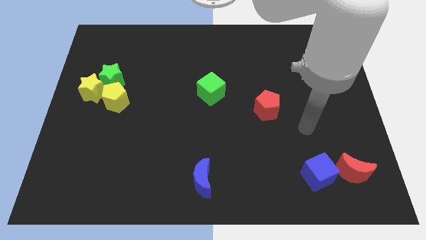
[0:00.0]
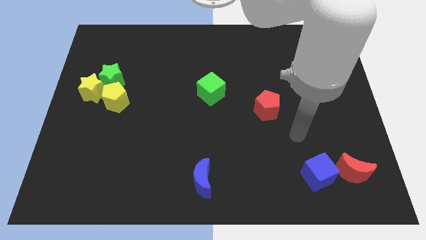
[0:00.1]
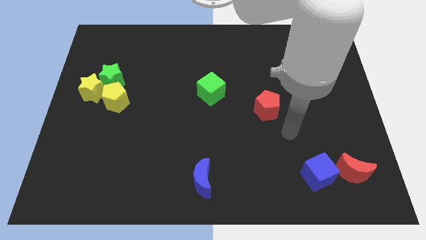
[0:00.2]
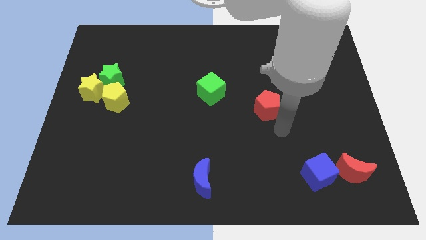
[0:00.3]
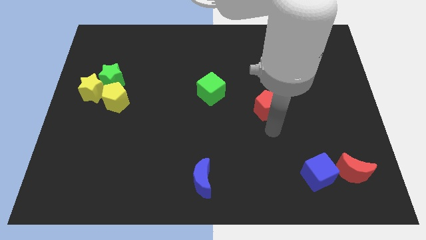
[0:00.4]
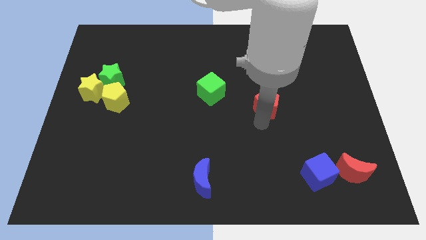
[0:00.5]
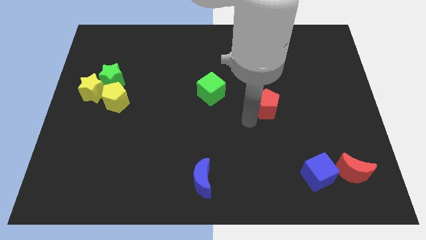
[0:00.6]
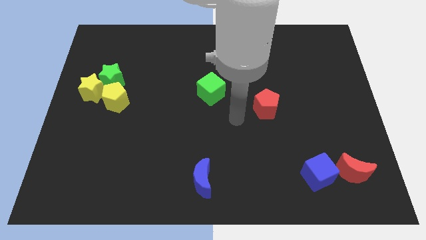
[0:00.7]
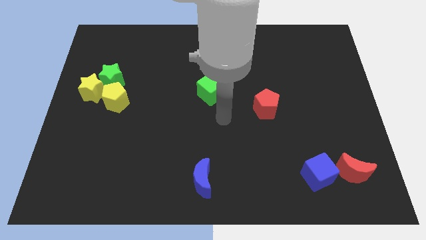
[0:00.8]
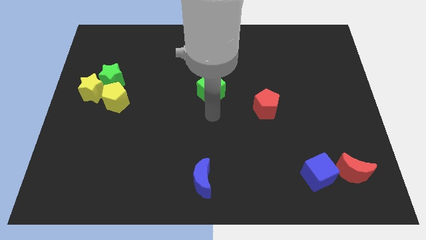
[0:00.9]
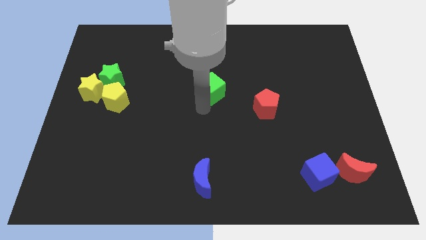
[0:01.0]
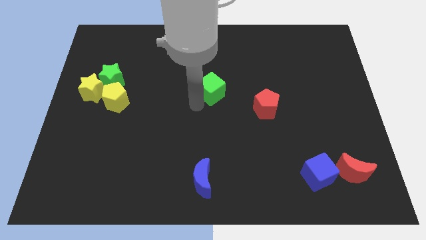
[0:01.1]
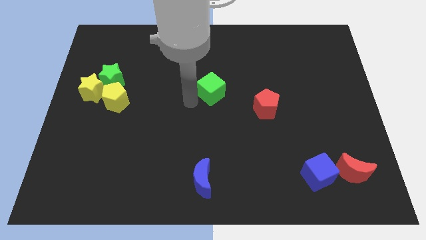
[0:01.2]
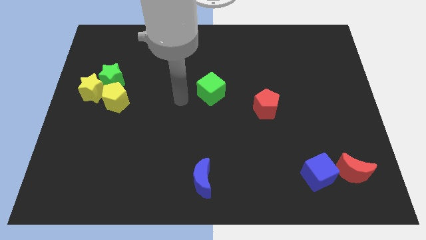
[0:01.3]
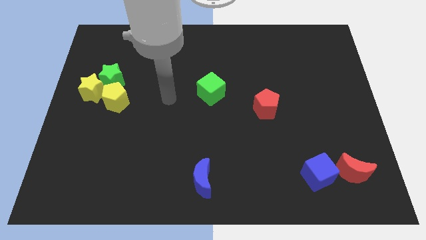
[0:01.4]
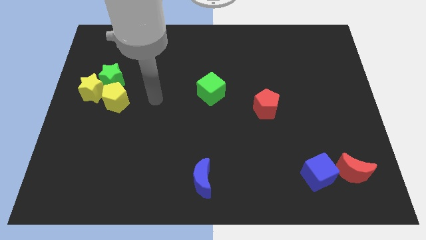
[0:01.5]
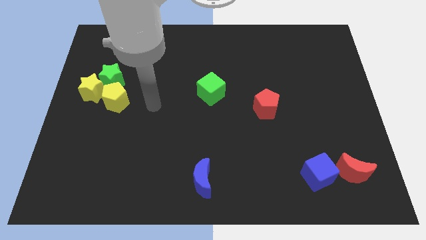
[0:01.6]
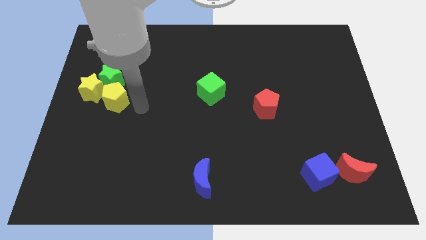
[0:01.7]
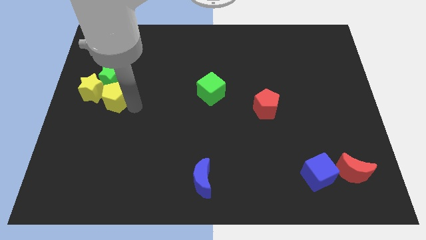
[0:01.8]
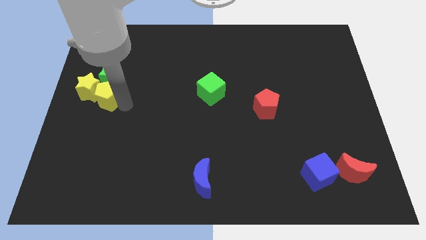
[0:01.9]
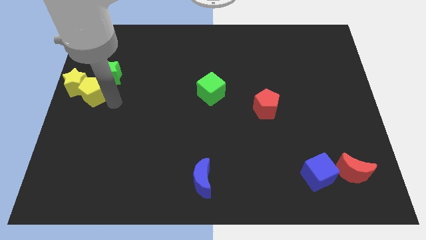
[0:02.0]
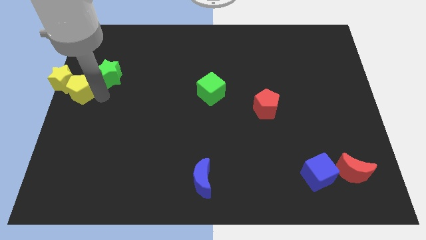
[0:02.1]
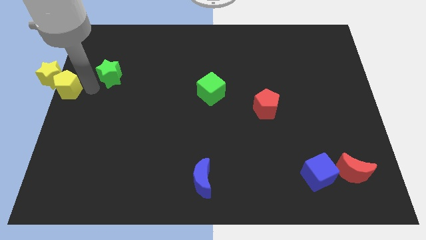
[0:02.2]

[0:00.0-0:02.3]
pull the green star apart from the yellow star and yellow pentagon

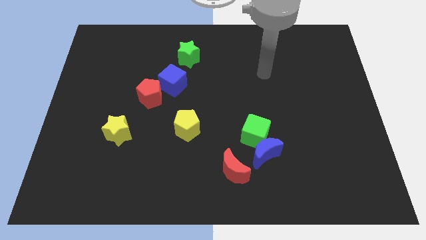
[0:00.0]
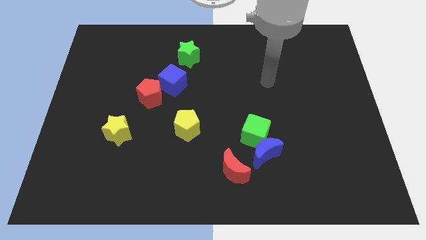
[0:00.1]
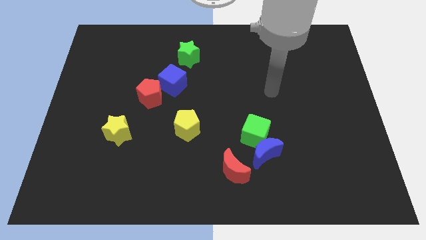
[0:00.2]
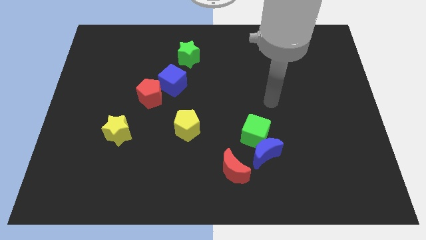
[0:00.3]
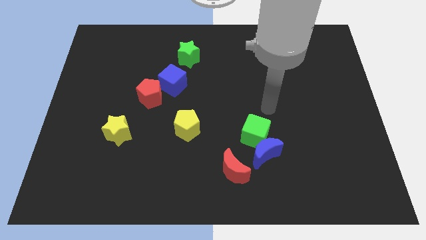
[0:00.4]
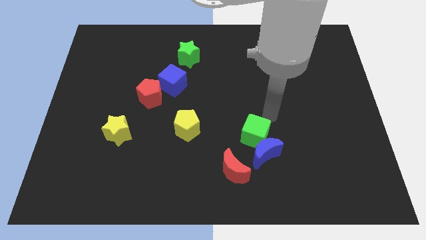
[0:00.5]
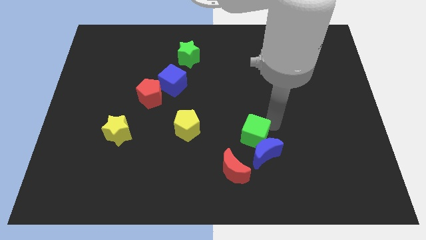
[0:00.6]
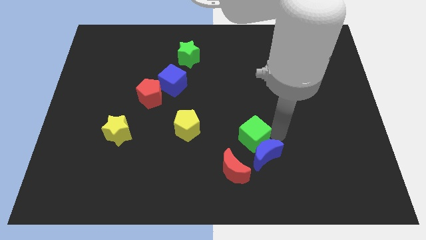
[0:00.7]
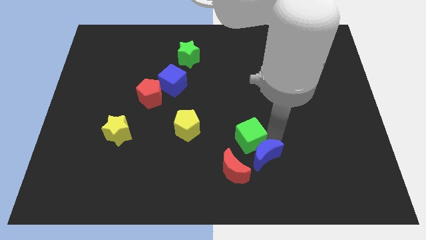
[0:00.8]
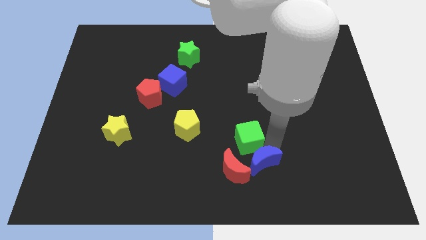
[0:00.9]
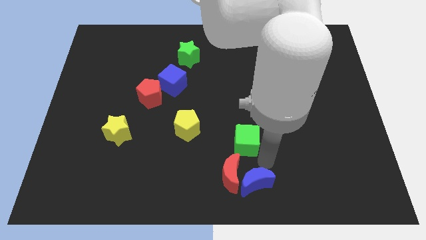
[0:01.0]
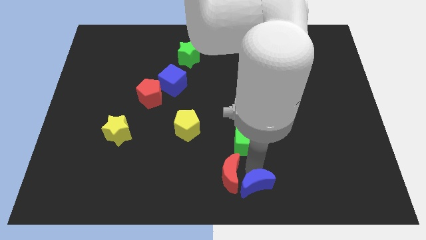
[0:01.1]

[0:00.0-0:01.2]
pull the green cube apart from the blue moon

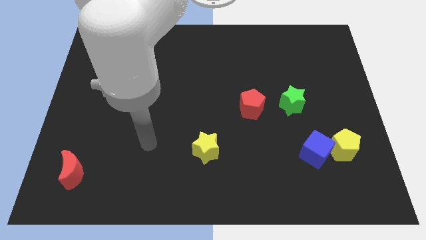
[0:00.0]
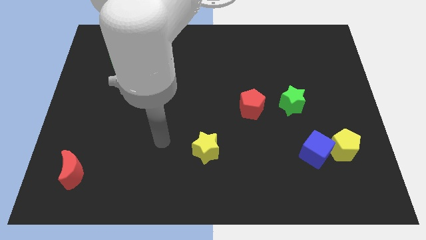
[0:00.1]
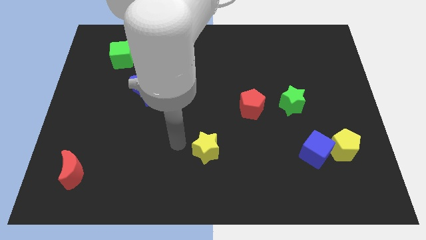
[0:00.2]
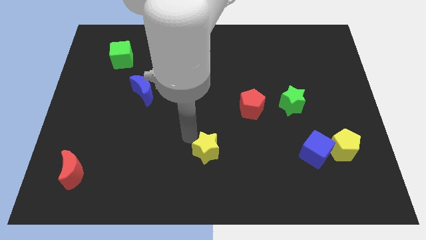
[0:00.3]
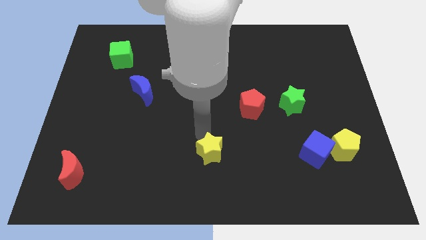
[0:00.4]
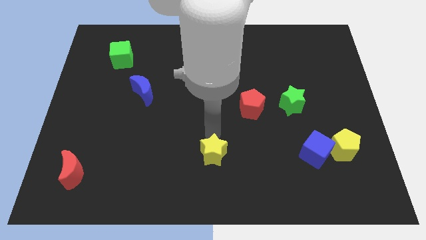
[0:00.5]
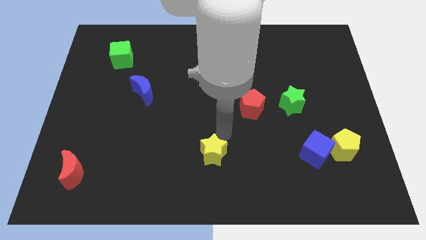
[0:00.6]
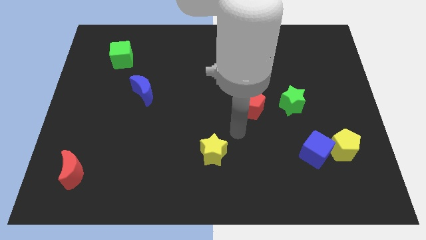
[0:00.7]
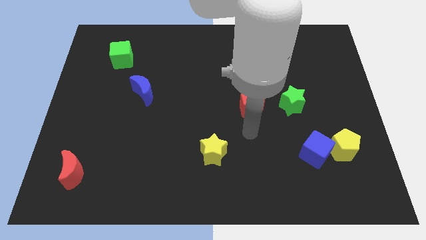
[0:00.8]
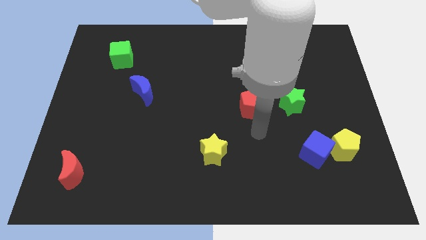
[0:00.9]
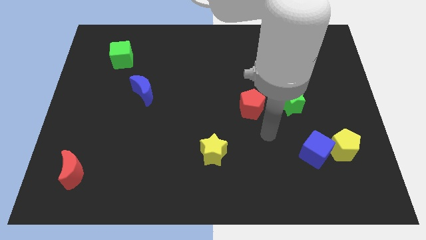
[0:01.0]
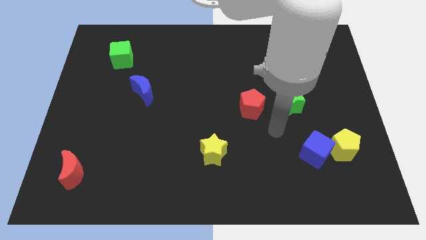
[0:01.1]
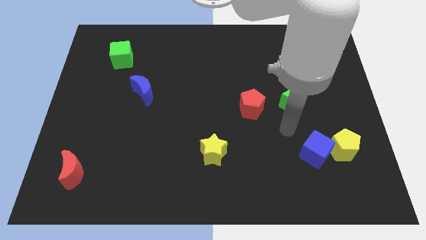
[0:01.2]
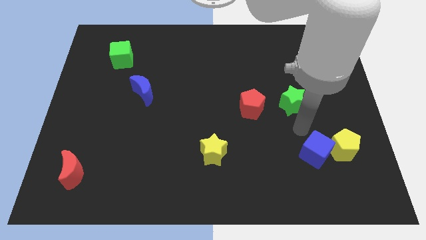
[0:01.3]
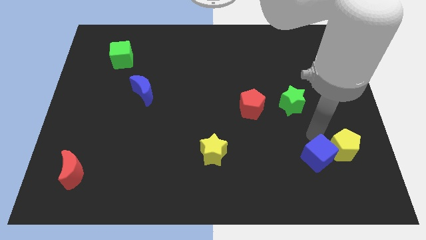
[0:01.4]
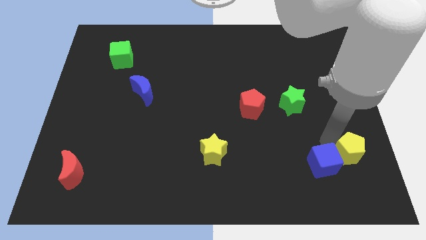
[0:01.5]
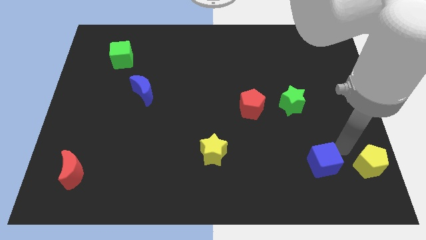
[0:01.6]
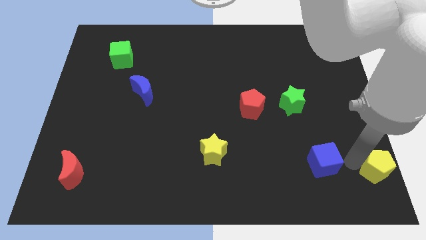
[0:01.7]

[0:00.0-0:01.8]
move the blue cube away from the yellow pentagon

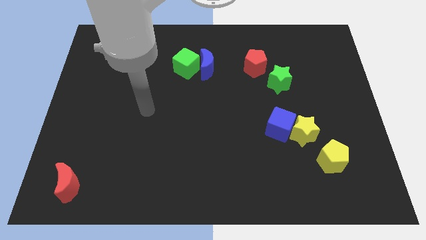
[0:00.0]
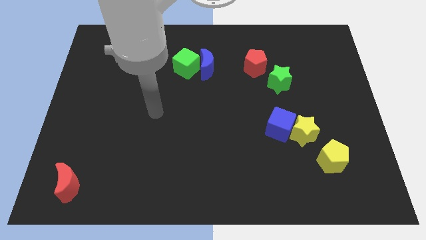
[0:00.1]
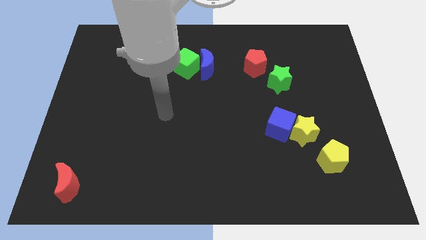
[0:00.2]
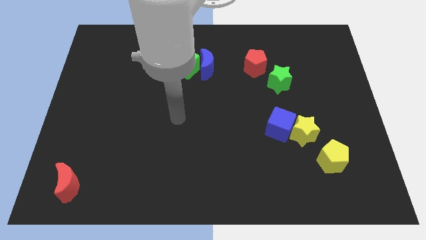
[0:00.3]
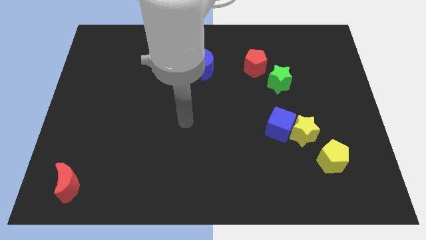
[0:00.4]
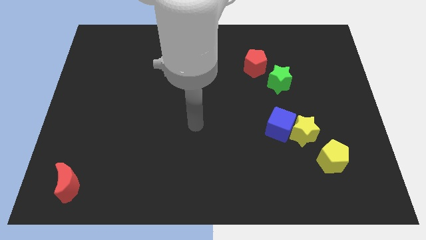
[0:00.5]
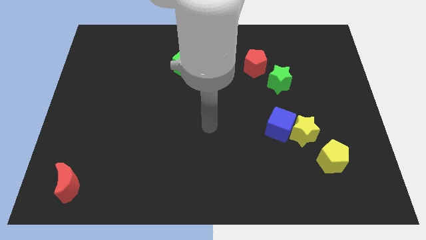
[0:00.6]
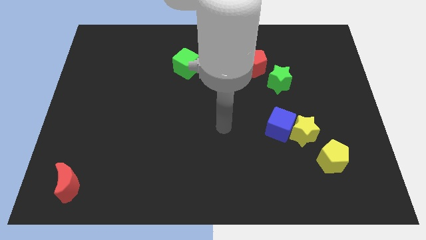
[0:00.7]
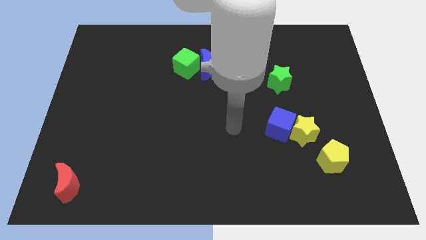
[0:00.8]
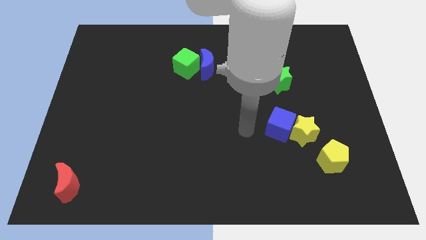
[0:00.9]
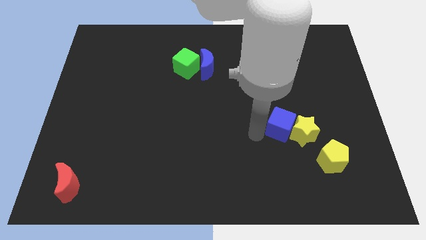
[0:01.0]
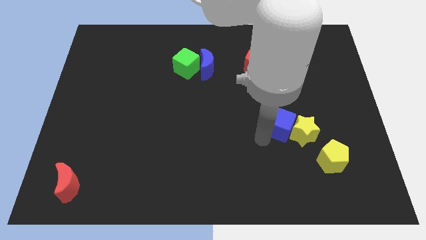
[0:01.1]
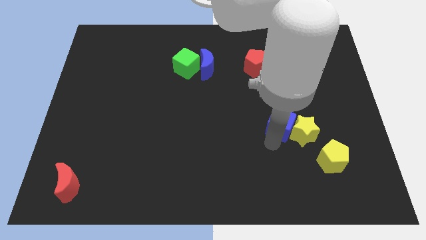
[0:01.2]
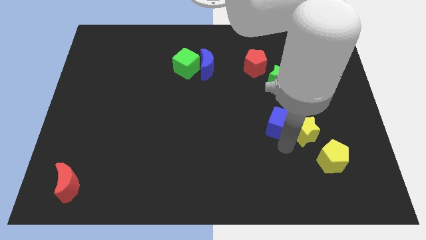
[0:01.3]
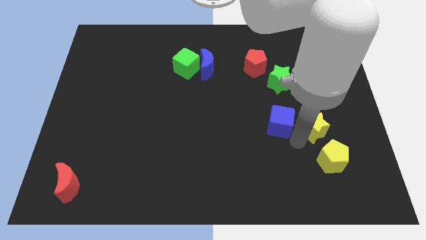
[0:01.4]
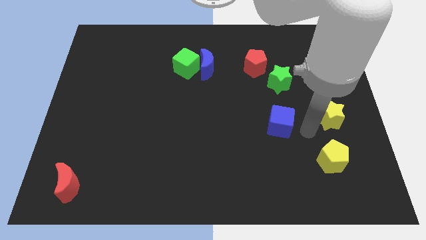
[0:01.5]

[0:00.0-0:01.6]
pull the blue cube apart from the yellow star

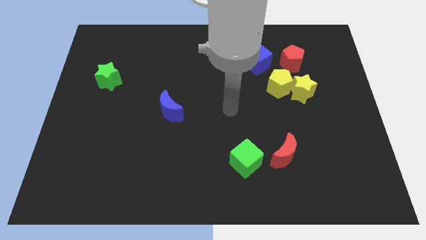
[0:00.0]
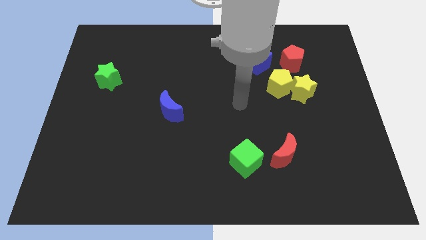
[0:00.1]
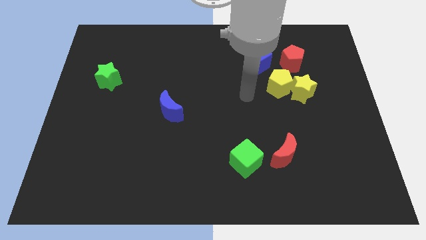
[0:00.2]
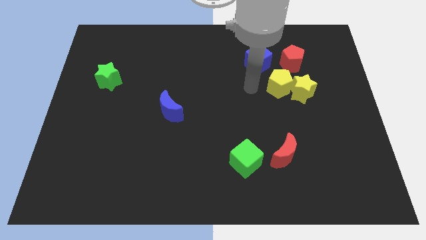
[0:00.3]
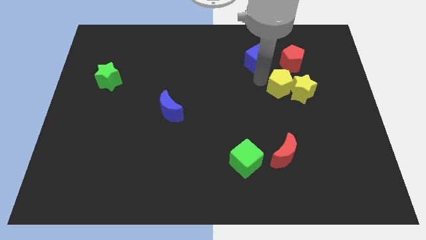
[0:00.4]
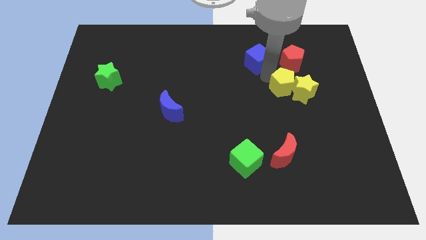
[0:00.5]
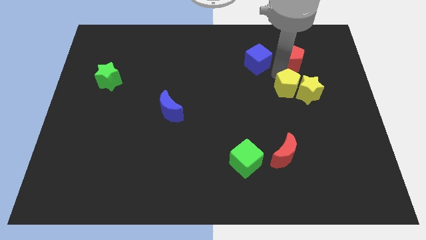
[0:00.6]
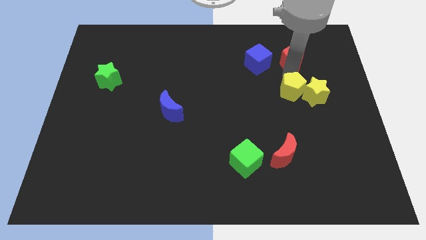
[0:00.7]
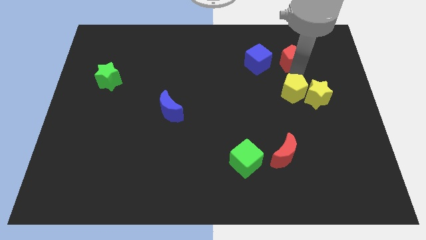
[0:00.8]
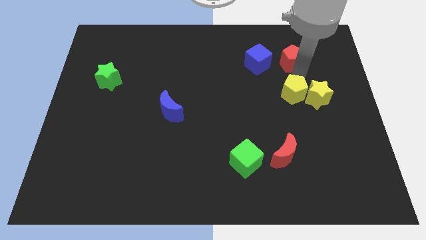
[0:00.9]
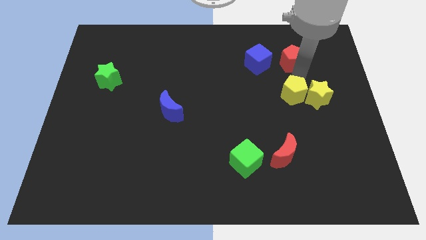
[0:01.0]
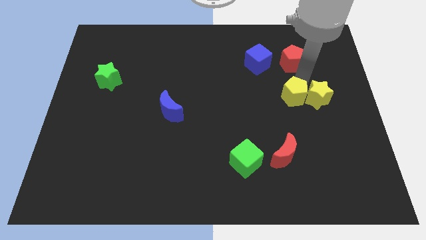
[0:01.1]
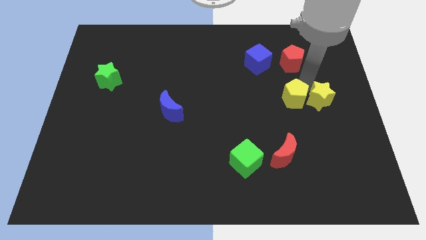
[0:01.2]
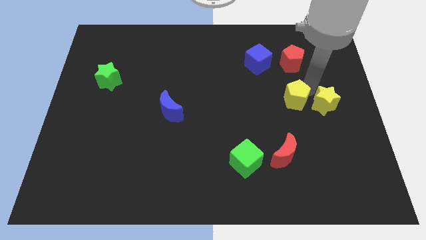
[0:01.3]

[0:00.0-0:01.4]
move the yellow star away from the yellow pentagon and red pentagon

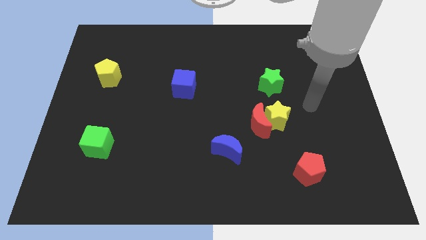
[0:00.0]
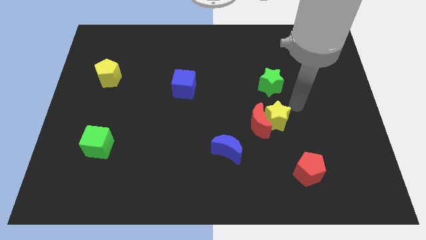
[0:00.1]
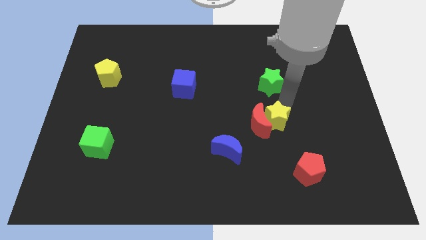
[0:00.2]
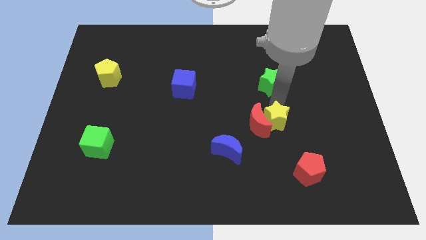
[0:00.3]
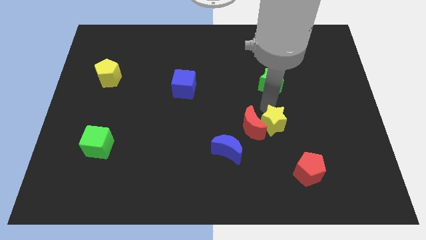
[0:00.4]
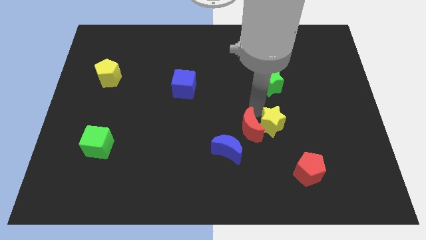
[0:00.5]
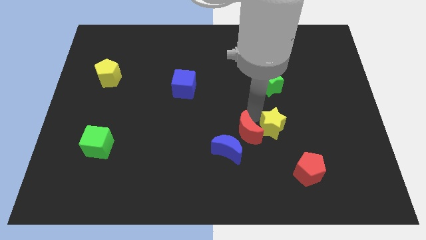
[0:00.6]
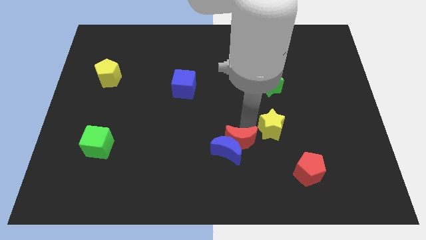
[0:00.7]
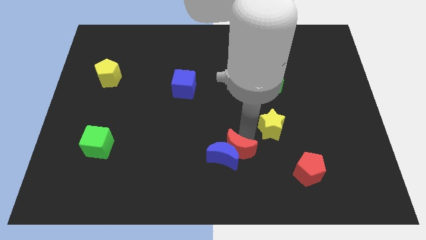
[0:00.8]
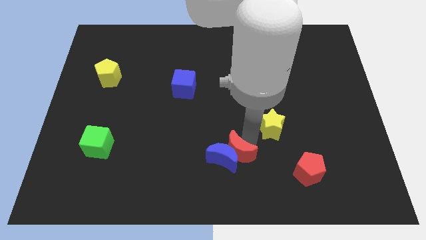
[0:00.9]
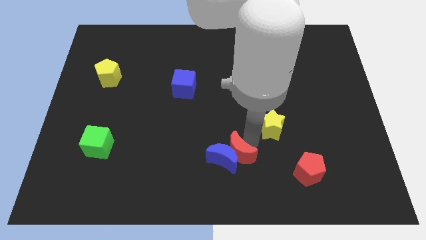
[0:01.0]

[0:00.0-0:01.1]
separate the yellow star from the red moon
